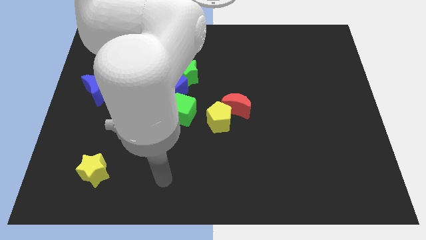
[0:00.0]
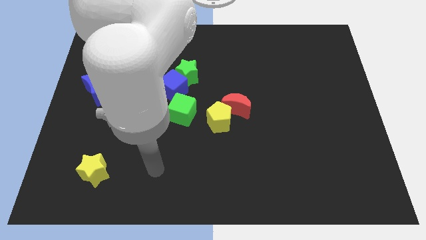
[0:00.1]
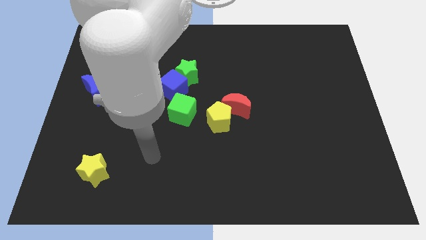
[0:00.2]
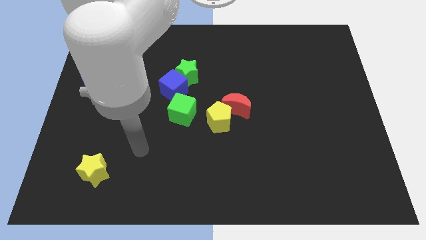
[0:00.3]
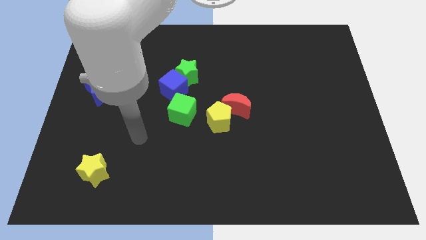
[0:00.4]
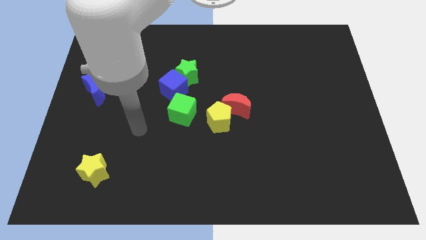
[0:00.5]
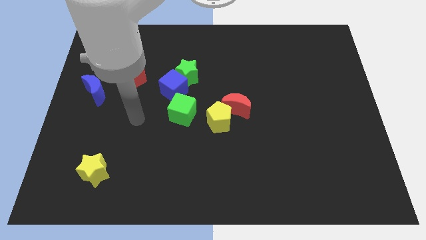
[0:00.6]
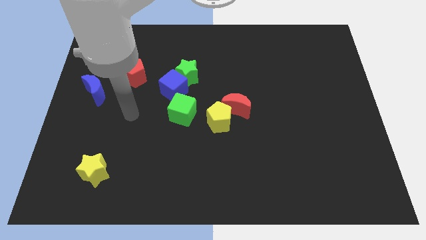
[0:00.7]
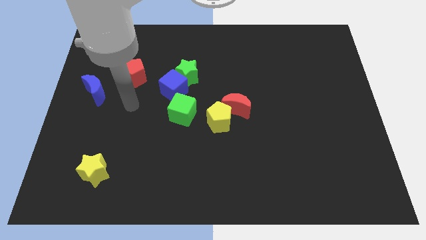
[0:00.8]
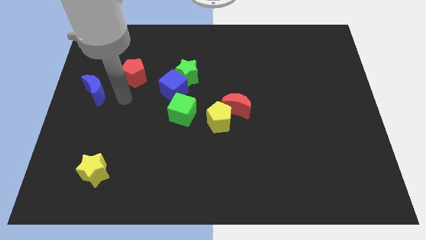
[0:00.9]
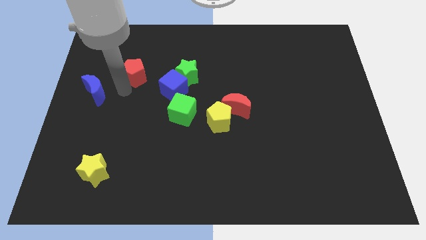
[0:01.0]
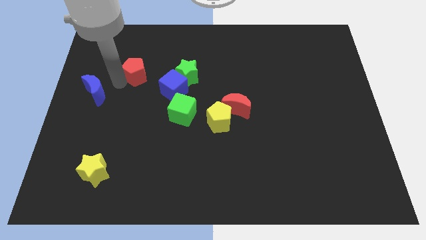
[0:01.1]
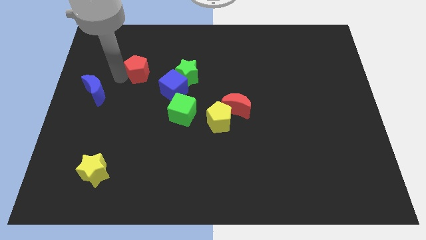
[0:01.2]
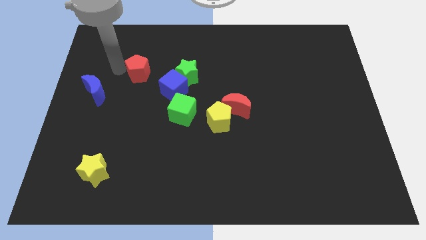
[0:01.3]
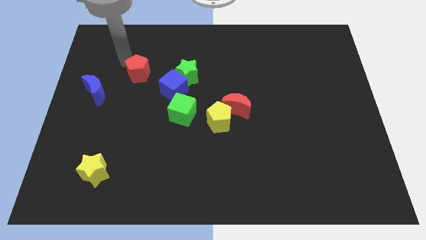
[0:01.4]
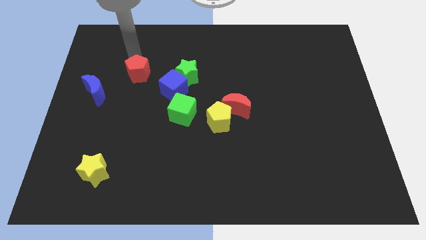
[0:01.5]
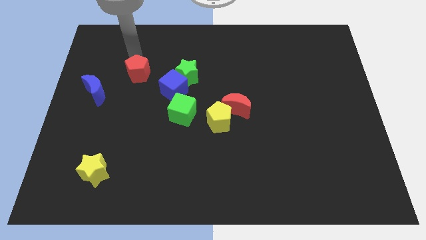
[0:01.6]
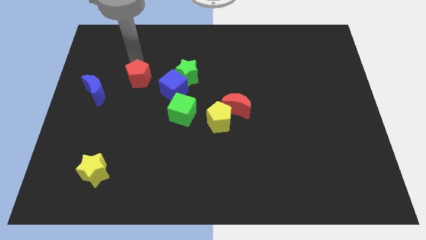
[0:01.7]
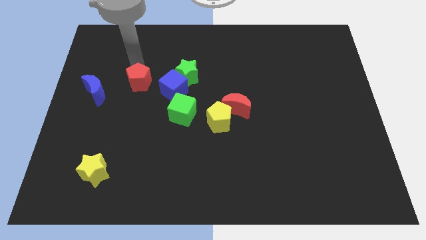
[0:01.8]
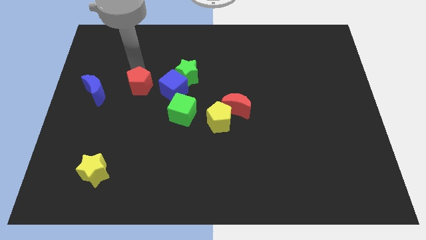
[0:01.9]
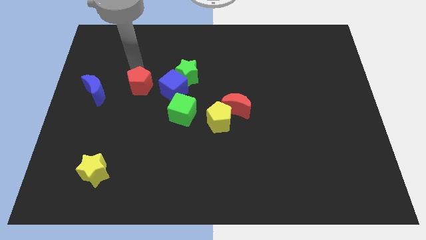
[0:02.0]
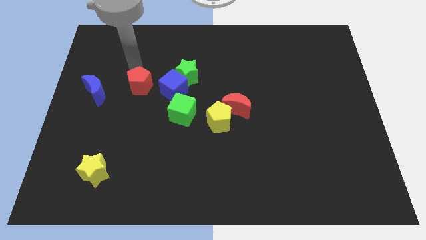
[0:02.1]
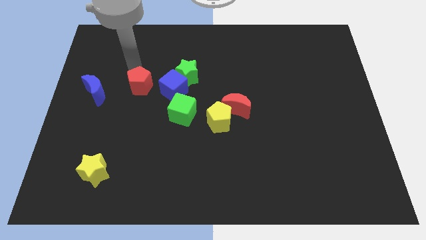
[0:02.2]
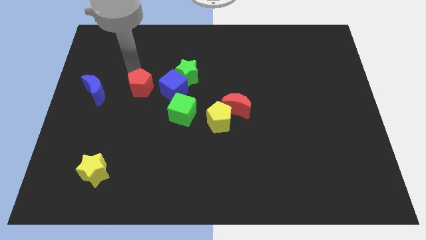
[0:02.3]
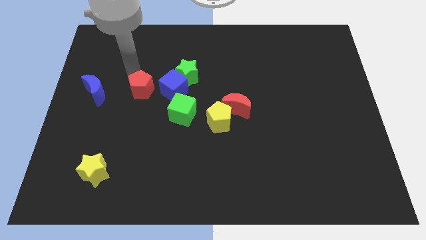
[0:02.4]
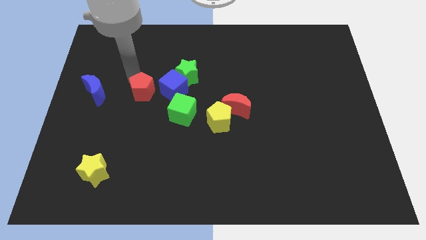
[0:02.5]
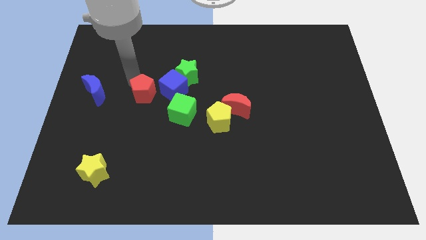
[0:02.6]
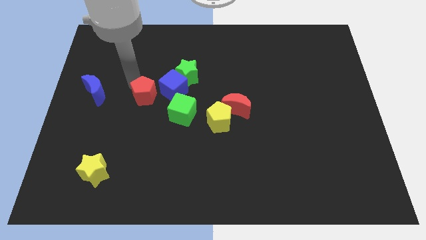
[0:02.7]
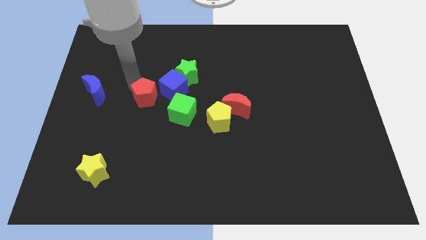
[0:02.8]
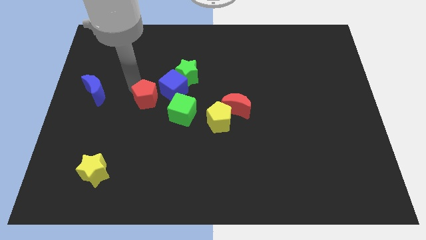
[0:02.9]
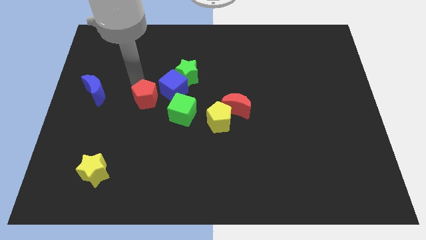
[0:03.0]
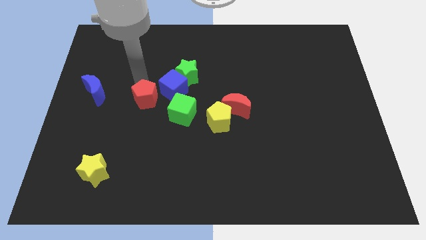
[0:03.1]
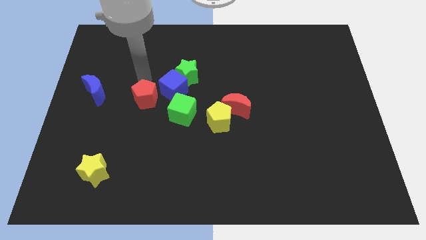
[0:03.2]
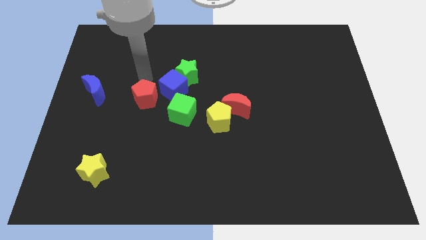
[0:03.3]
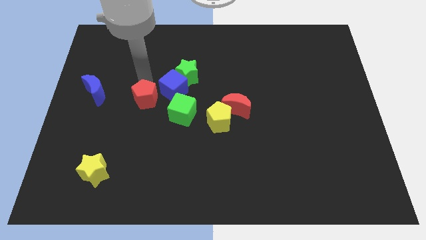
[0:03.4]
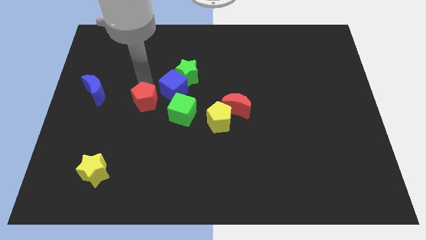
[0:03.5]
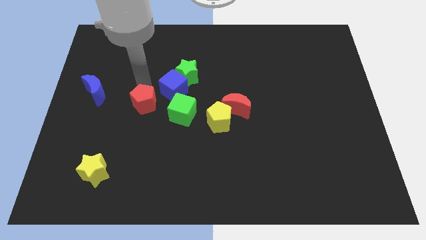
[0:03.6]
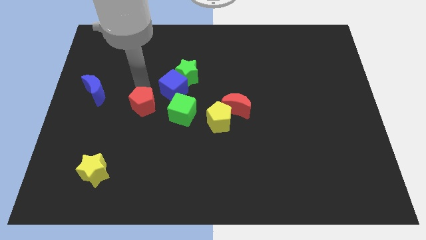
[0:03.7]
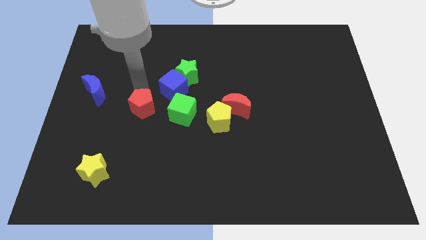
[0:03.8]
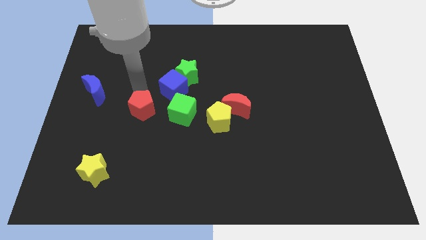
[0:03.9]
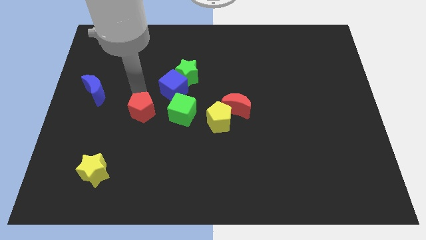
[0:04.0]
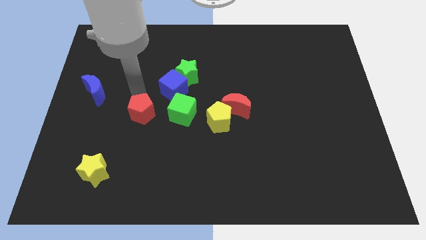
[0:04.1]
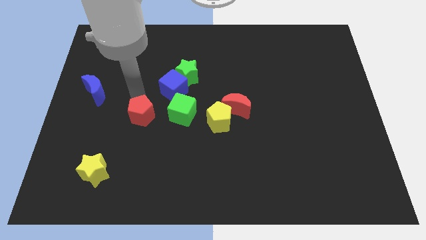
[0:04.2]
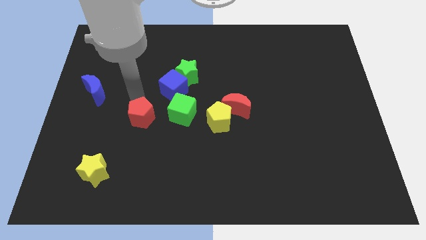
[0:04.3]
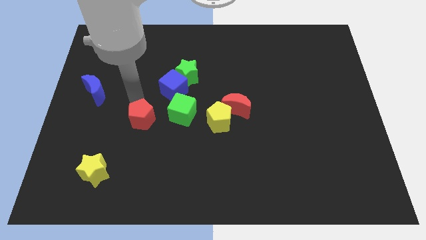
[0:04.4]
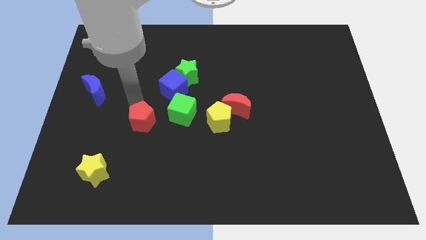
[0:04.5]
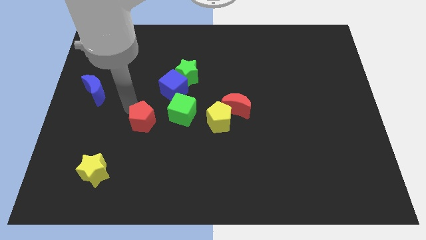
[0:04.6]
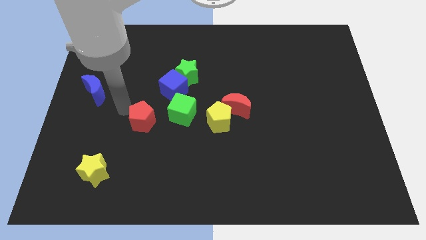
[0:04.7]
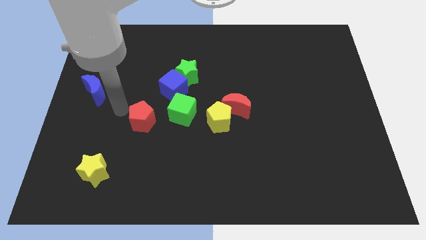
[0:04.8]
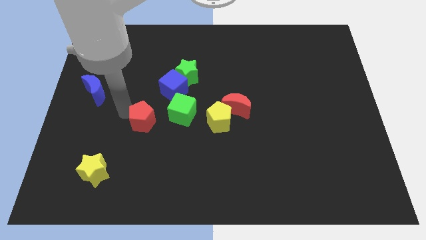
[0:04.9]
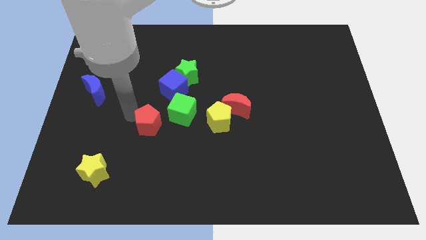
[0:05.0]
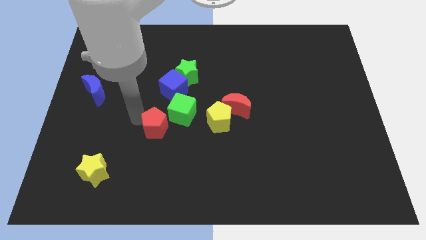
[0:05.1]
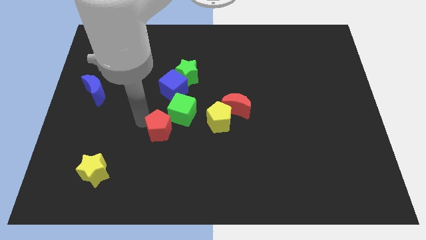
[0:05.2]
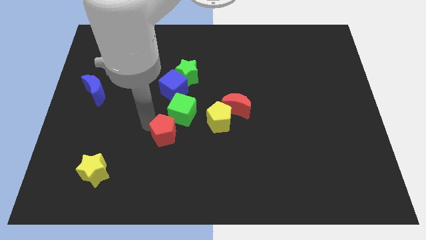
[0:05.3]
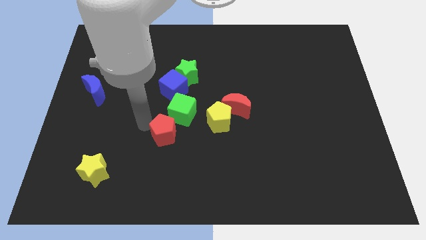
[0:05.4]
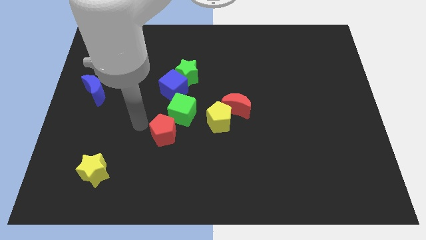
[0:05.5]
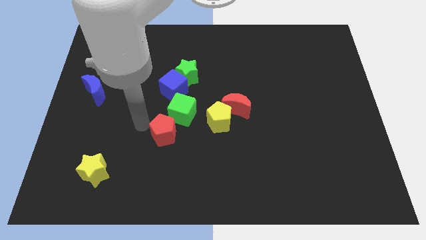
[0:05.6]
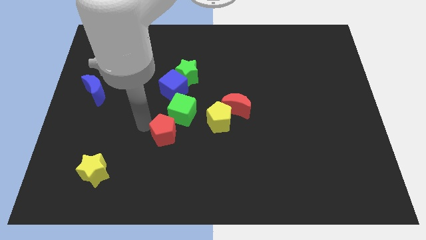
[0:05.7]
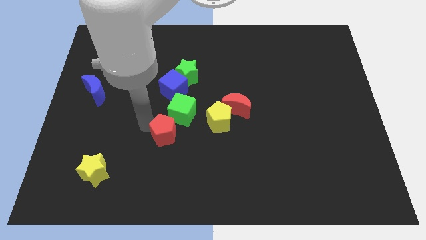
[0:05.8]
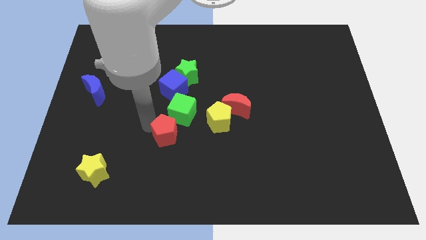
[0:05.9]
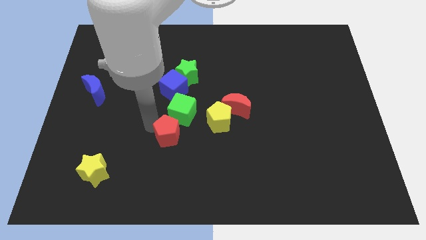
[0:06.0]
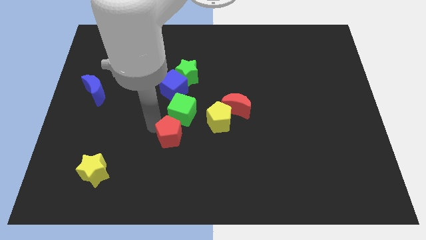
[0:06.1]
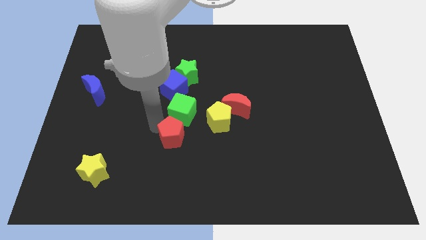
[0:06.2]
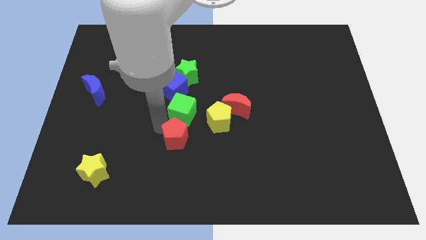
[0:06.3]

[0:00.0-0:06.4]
push the red pentagon down and then right

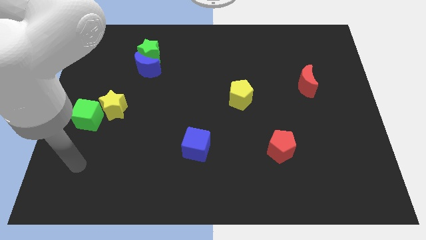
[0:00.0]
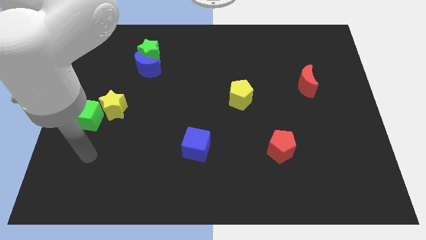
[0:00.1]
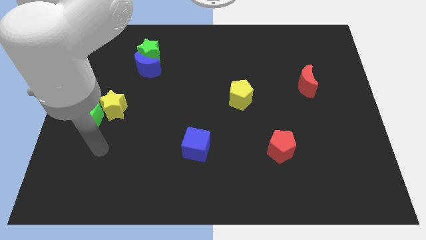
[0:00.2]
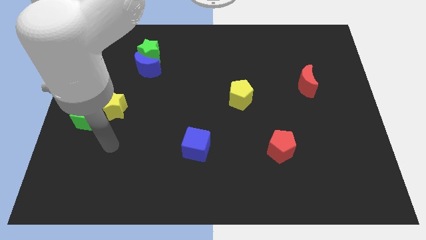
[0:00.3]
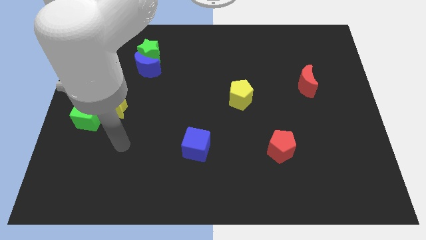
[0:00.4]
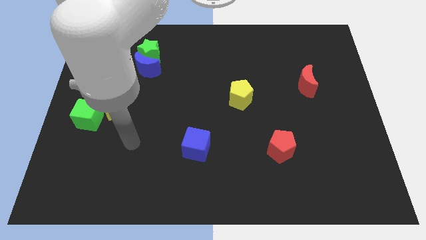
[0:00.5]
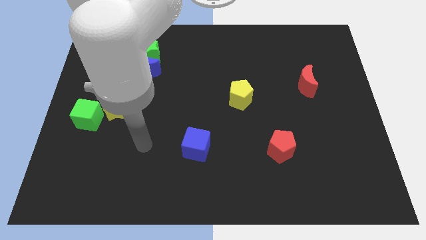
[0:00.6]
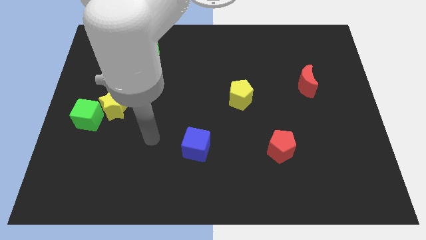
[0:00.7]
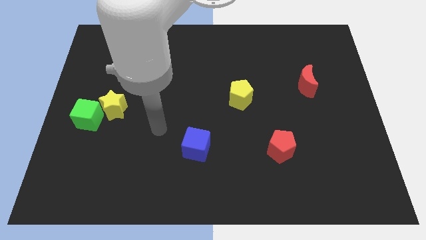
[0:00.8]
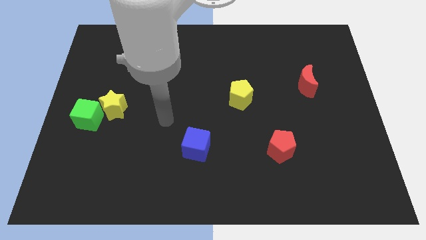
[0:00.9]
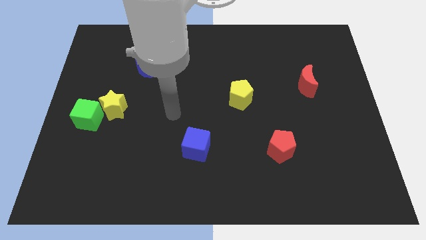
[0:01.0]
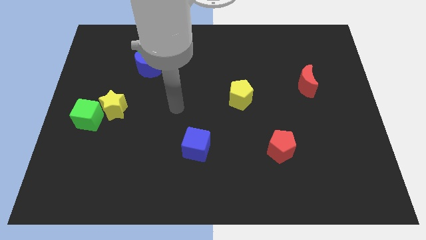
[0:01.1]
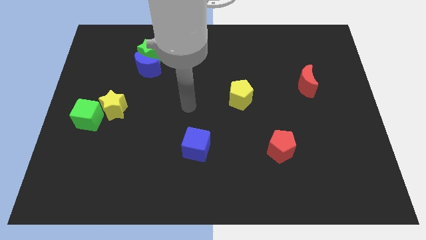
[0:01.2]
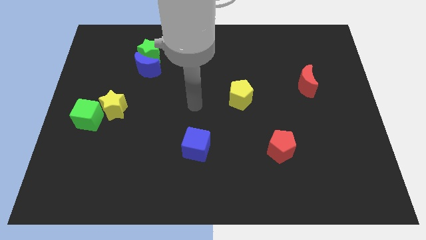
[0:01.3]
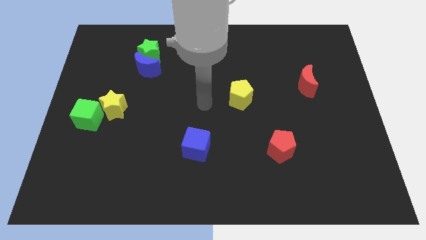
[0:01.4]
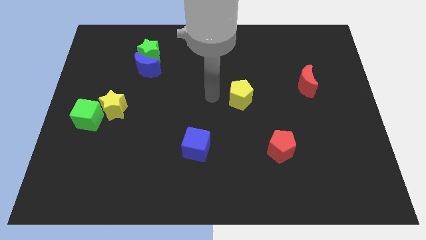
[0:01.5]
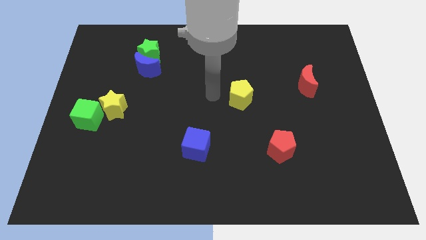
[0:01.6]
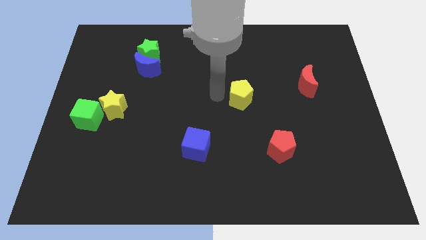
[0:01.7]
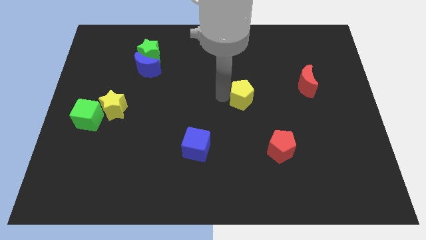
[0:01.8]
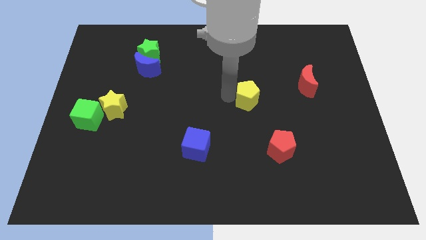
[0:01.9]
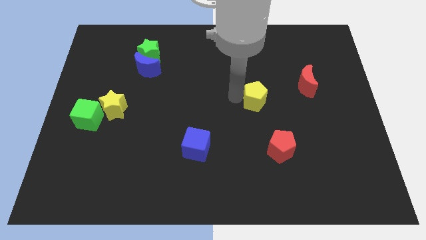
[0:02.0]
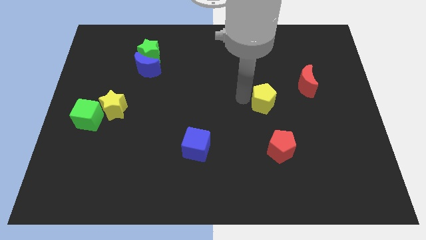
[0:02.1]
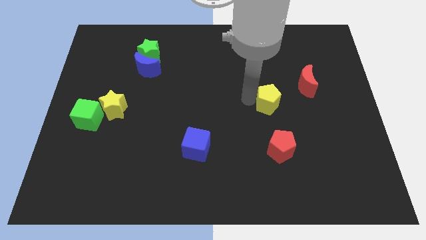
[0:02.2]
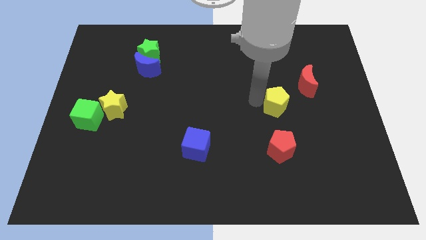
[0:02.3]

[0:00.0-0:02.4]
slide the yellow pentagon right a little
